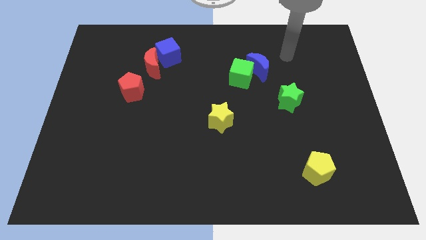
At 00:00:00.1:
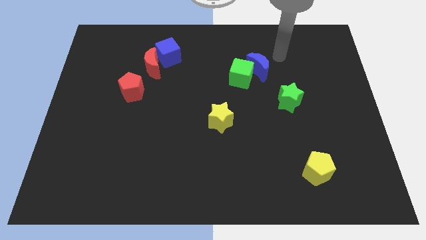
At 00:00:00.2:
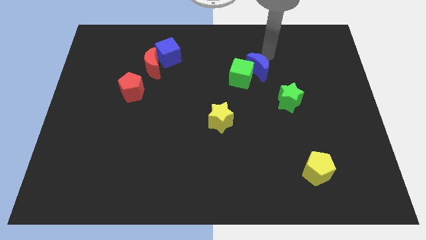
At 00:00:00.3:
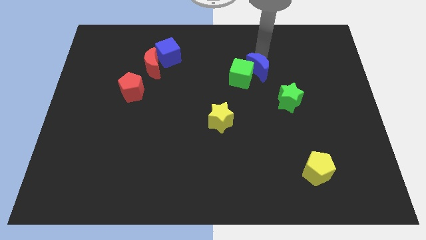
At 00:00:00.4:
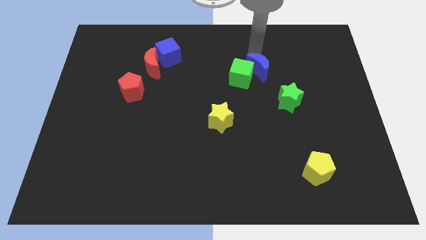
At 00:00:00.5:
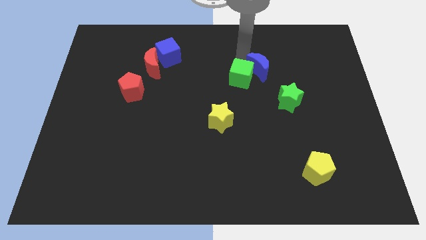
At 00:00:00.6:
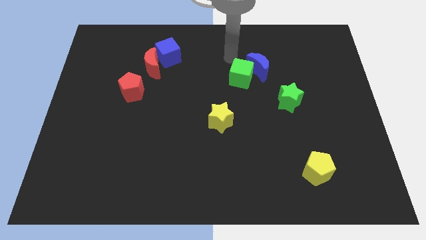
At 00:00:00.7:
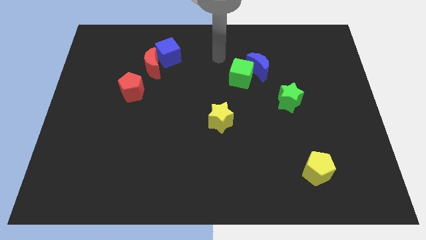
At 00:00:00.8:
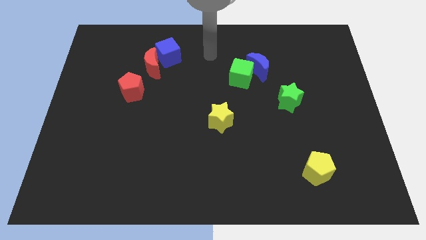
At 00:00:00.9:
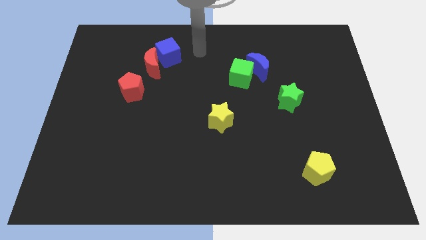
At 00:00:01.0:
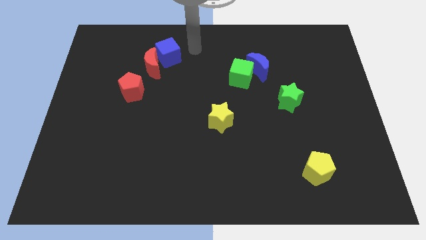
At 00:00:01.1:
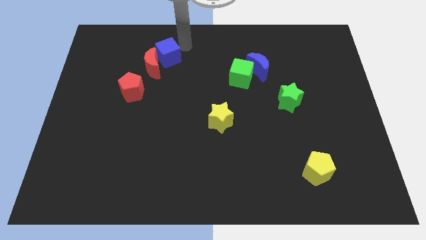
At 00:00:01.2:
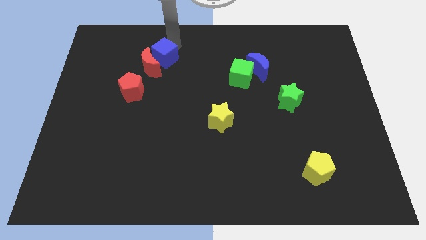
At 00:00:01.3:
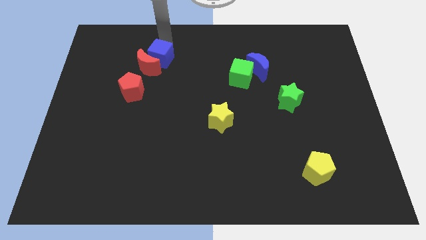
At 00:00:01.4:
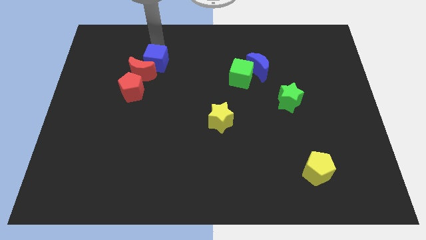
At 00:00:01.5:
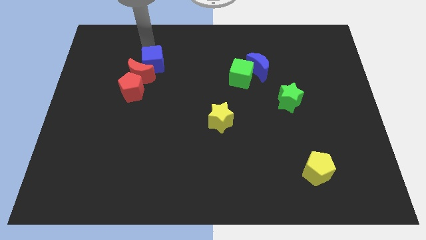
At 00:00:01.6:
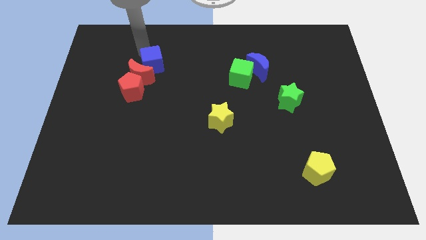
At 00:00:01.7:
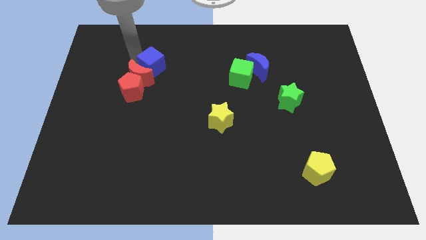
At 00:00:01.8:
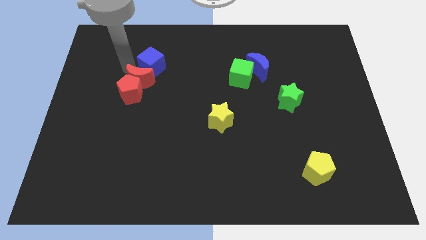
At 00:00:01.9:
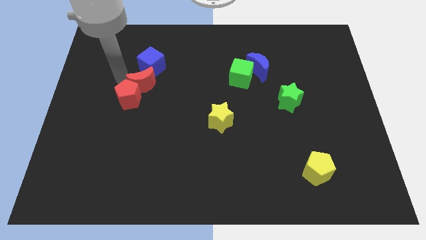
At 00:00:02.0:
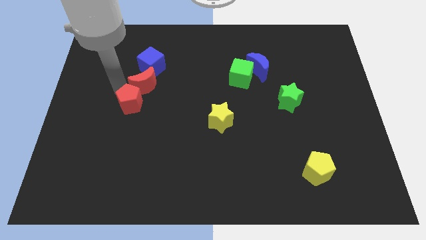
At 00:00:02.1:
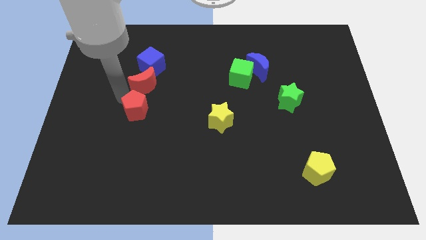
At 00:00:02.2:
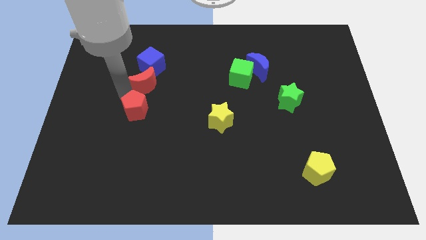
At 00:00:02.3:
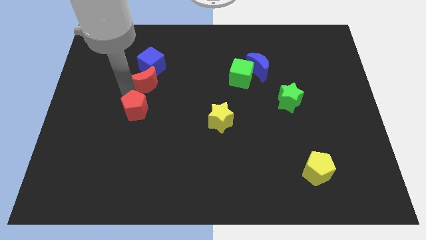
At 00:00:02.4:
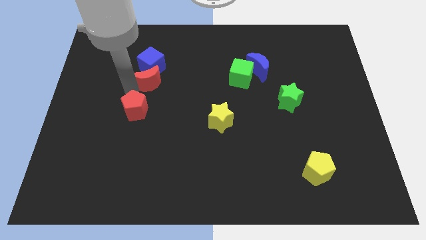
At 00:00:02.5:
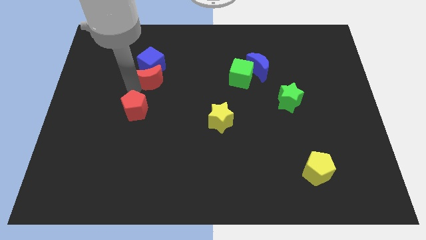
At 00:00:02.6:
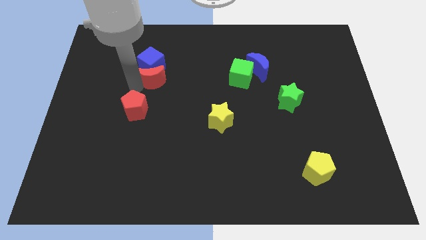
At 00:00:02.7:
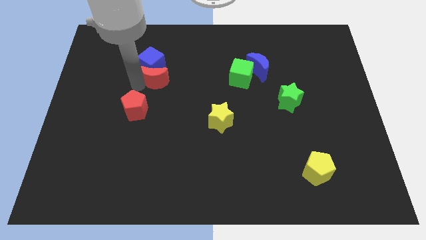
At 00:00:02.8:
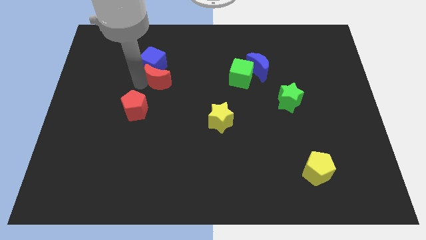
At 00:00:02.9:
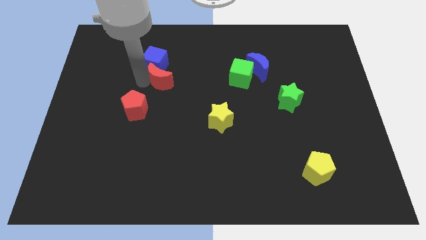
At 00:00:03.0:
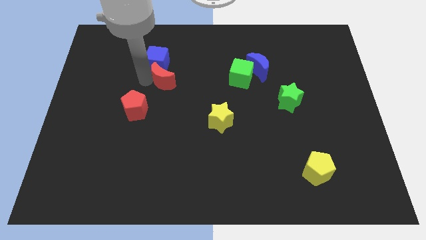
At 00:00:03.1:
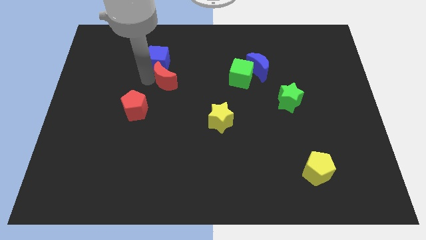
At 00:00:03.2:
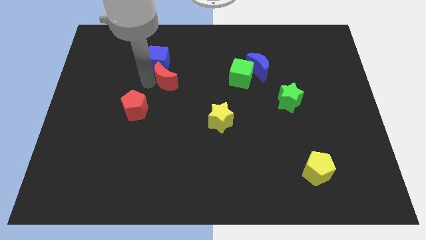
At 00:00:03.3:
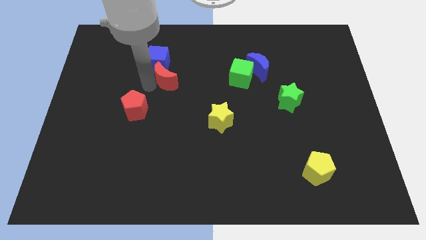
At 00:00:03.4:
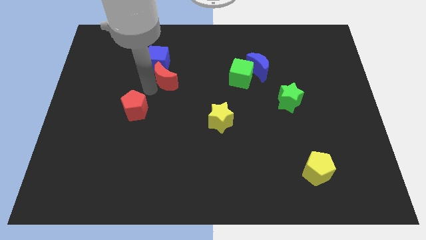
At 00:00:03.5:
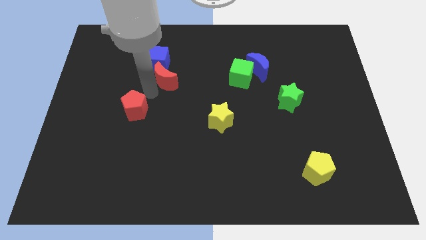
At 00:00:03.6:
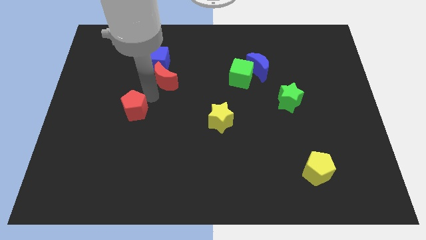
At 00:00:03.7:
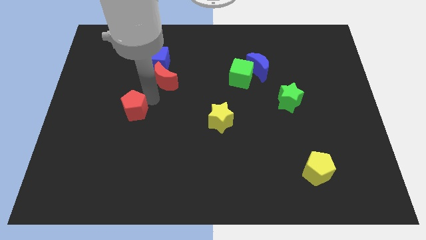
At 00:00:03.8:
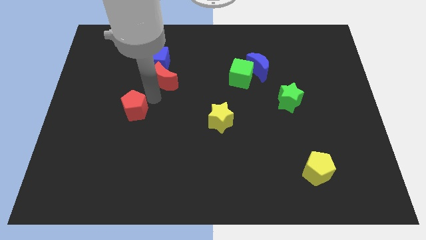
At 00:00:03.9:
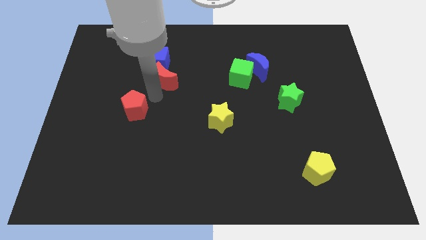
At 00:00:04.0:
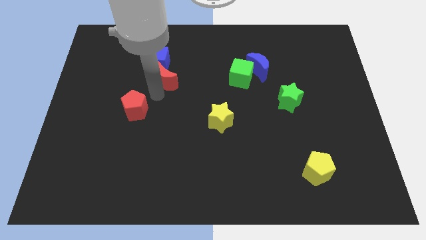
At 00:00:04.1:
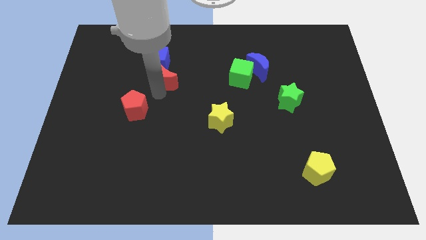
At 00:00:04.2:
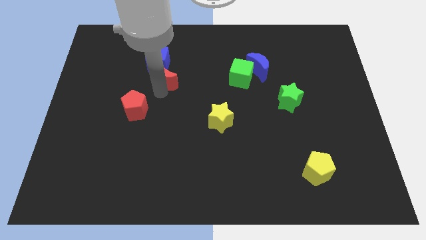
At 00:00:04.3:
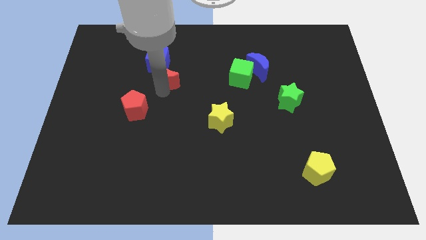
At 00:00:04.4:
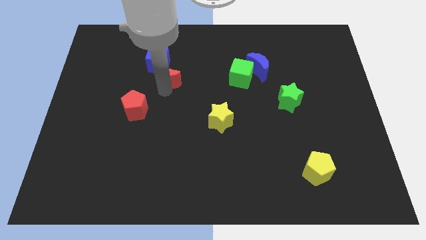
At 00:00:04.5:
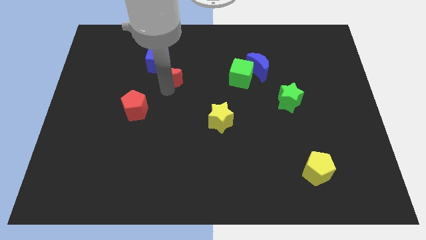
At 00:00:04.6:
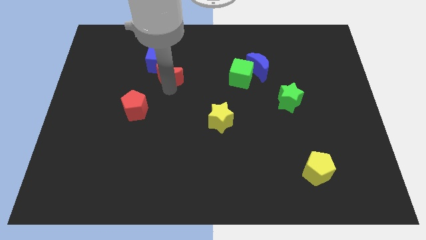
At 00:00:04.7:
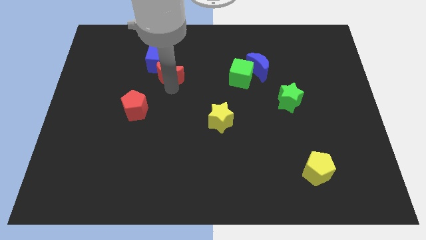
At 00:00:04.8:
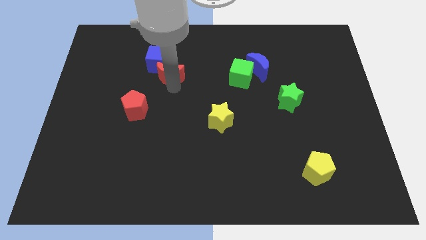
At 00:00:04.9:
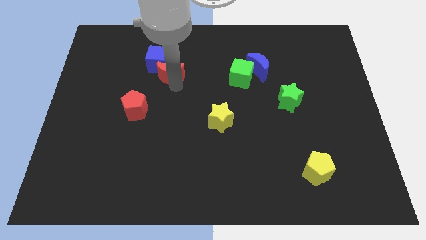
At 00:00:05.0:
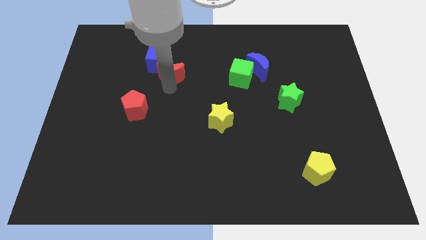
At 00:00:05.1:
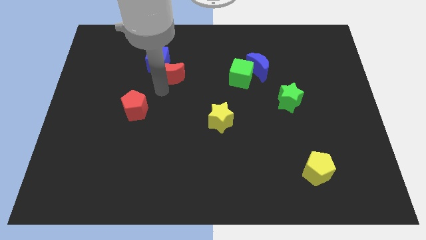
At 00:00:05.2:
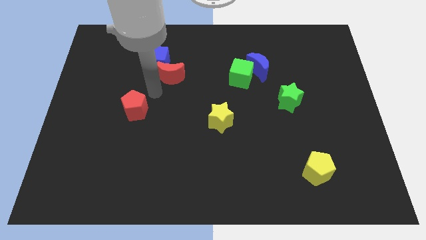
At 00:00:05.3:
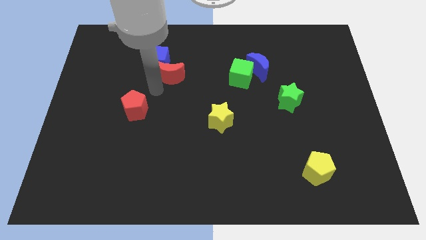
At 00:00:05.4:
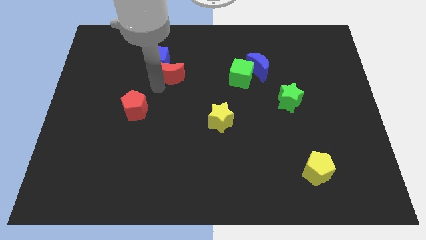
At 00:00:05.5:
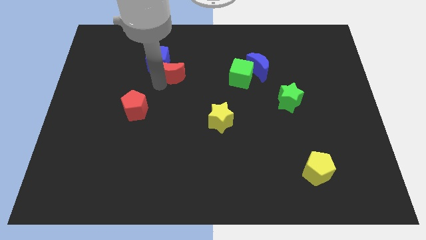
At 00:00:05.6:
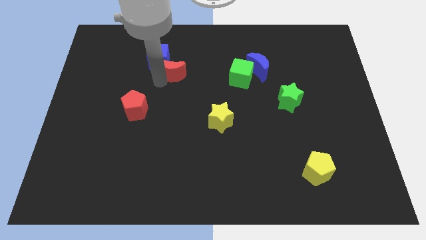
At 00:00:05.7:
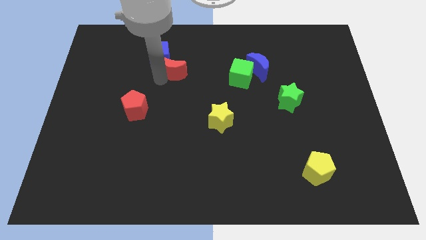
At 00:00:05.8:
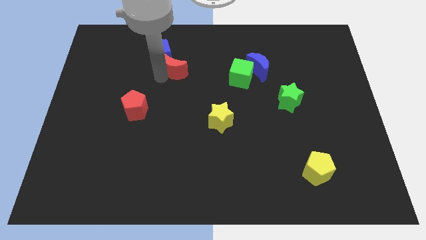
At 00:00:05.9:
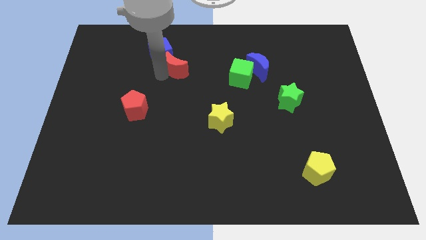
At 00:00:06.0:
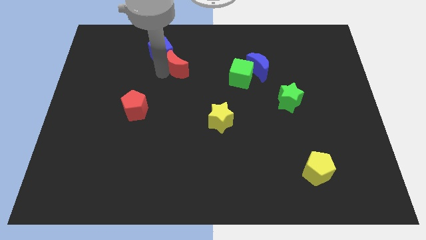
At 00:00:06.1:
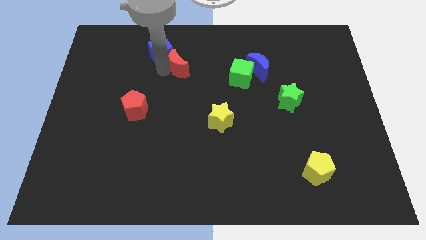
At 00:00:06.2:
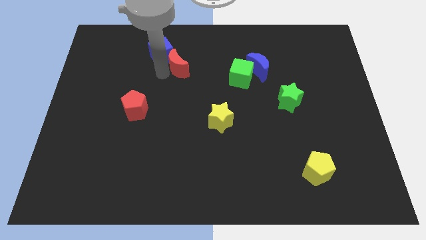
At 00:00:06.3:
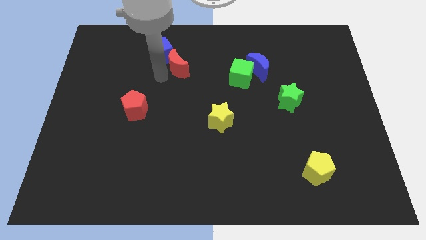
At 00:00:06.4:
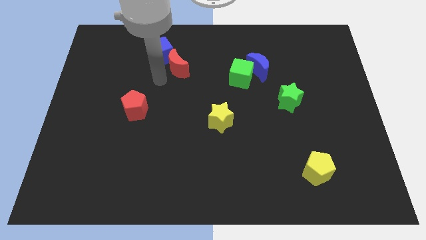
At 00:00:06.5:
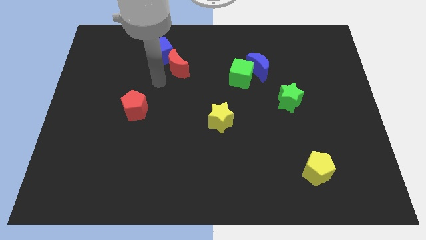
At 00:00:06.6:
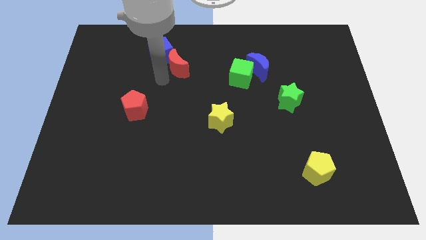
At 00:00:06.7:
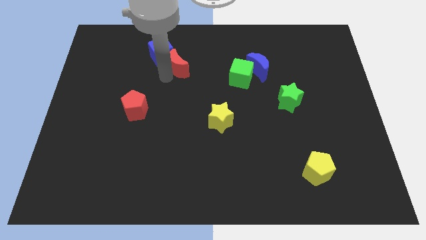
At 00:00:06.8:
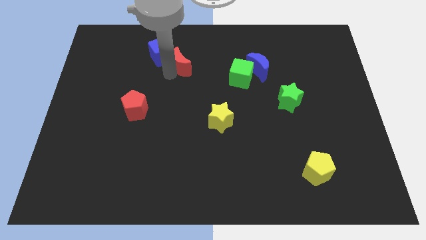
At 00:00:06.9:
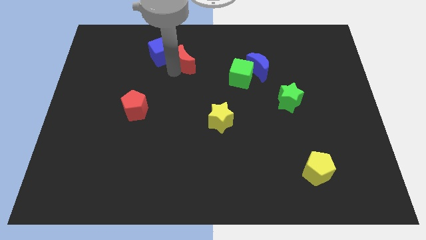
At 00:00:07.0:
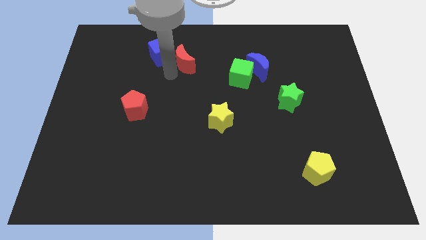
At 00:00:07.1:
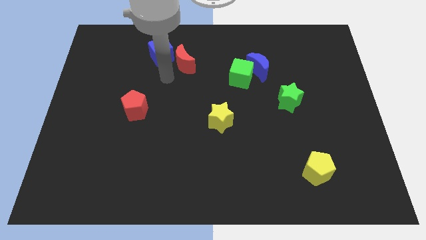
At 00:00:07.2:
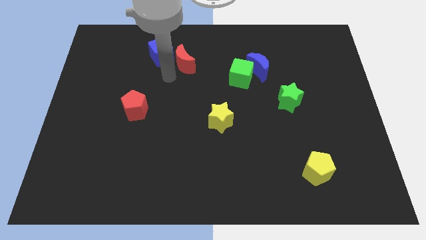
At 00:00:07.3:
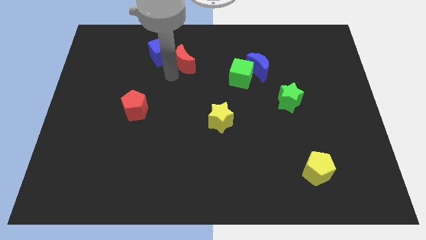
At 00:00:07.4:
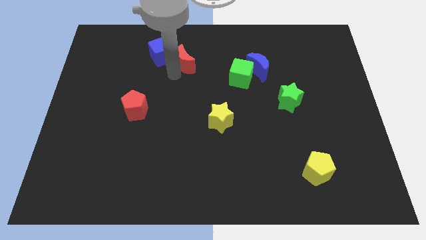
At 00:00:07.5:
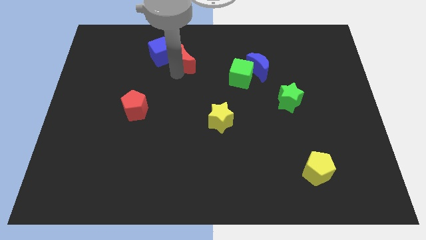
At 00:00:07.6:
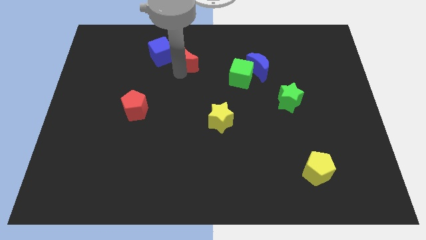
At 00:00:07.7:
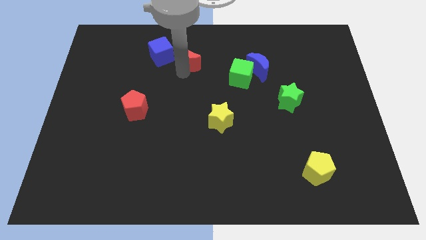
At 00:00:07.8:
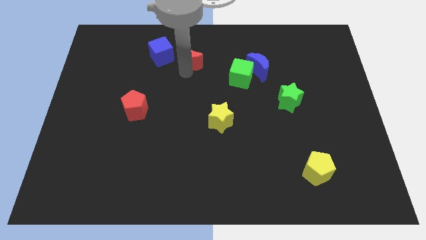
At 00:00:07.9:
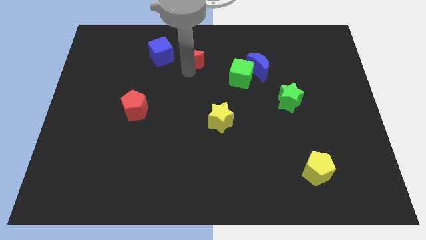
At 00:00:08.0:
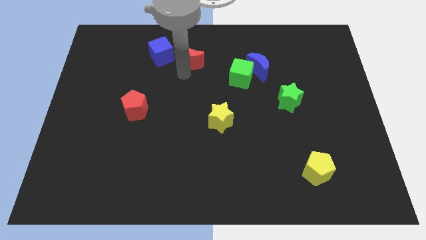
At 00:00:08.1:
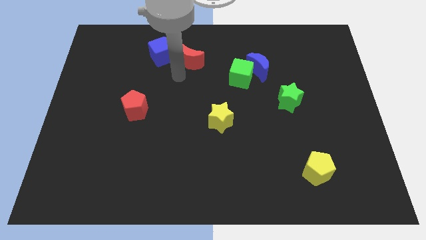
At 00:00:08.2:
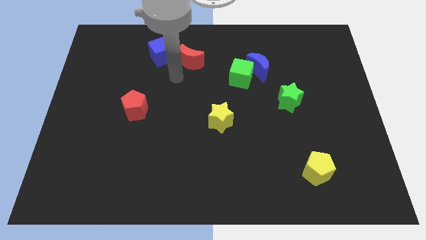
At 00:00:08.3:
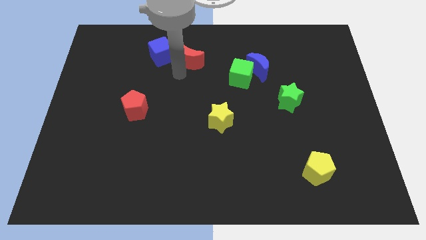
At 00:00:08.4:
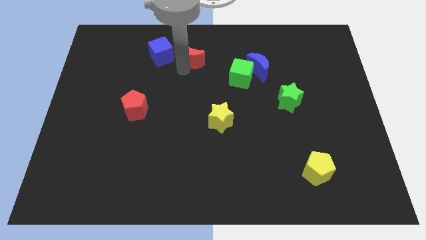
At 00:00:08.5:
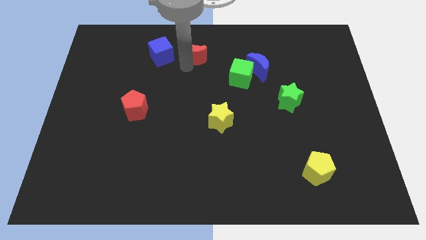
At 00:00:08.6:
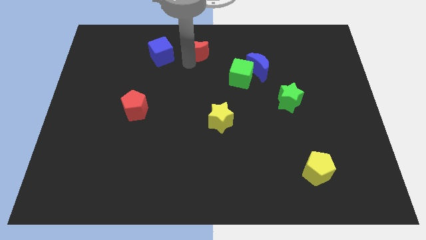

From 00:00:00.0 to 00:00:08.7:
move the red moon to the towards your base
